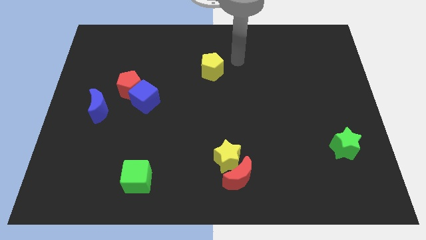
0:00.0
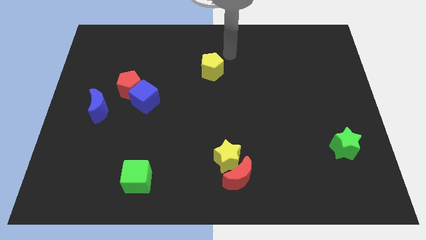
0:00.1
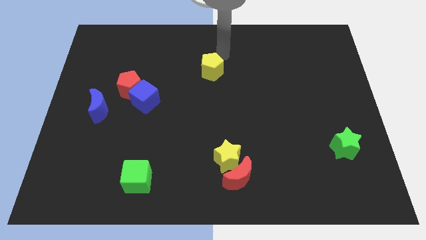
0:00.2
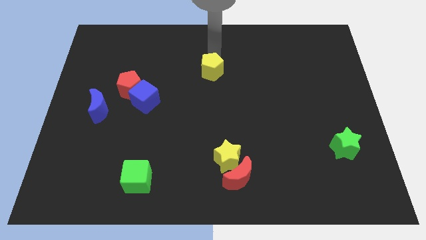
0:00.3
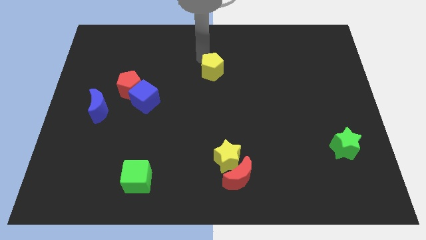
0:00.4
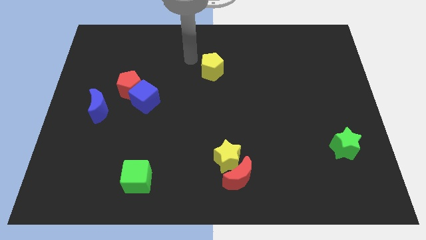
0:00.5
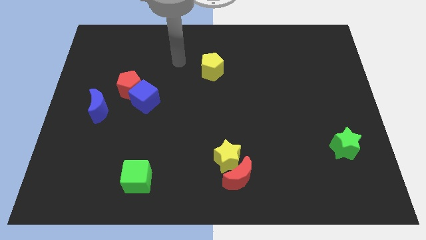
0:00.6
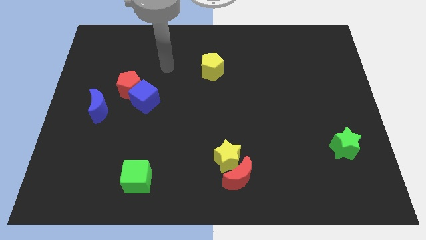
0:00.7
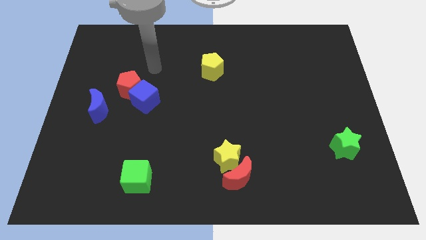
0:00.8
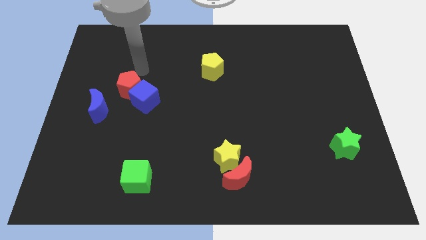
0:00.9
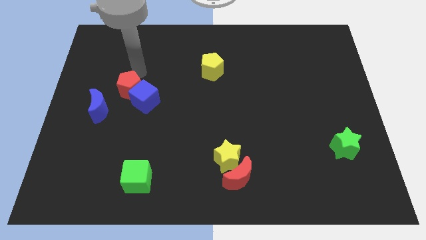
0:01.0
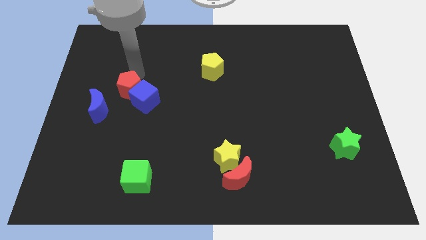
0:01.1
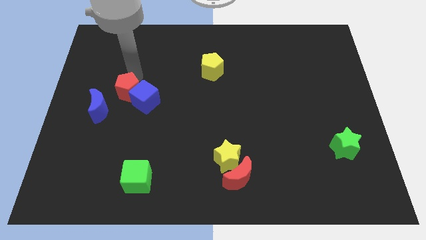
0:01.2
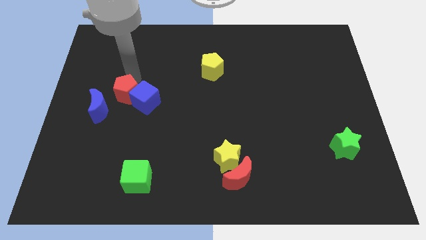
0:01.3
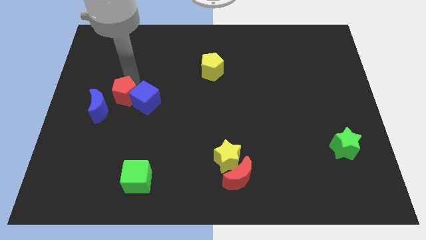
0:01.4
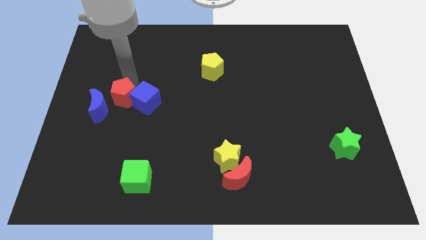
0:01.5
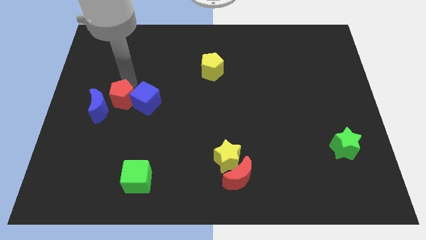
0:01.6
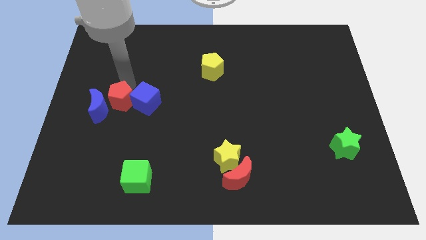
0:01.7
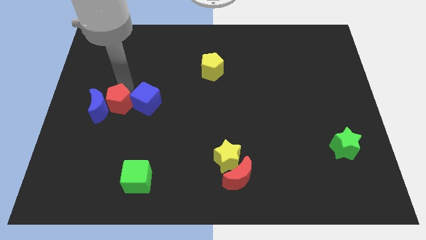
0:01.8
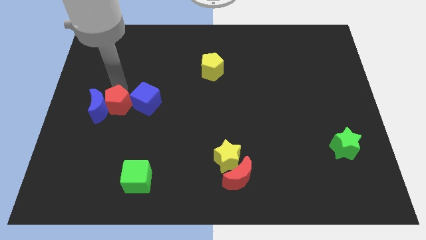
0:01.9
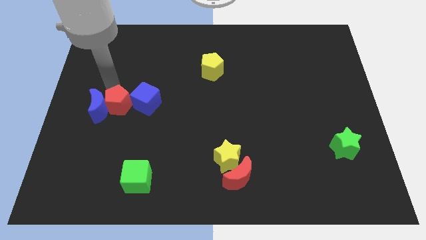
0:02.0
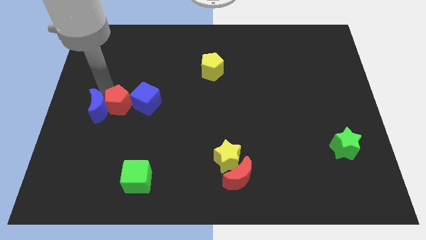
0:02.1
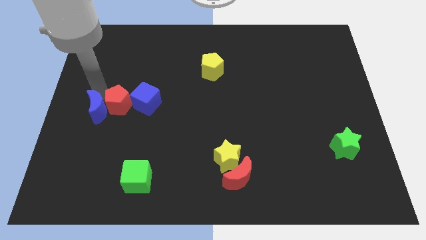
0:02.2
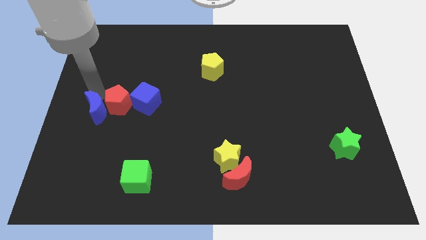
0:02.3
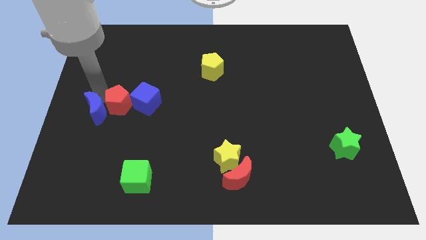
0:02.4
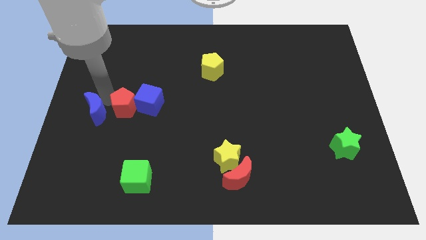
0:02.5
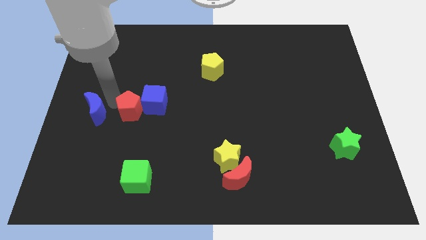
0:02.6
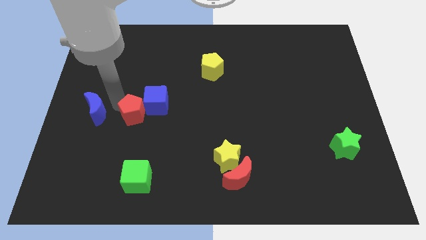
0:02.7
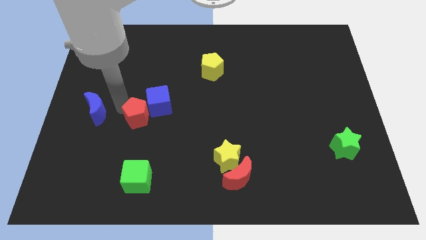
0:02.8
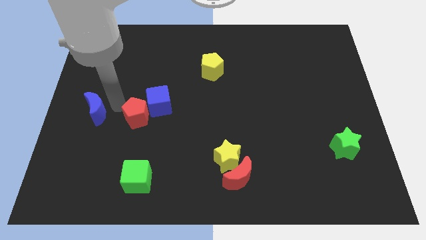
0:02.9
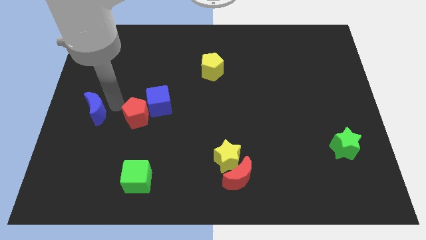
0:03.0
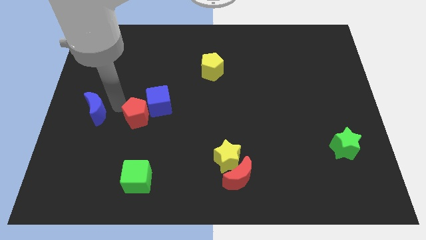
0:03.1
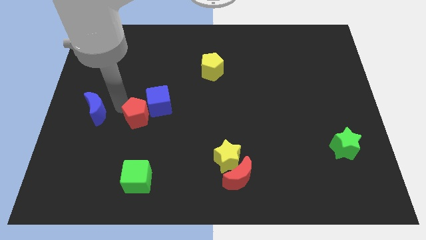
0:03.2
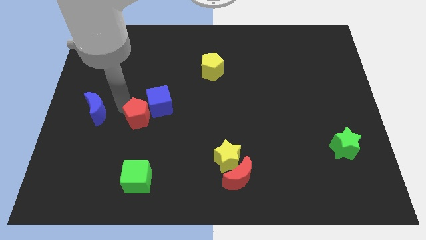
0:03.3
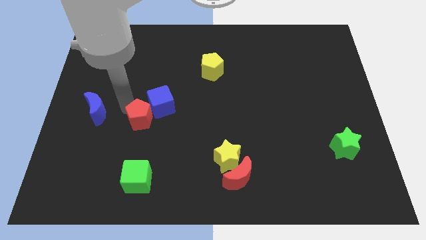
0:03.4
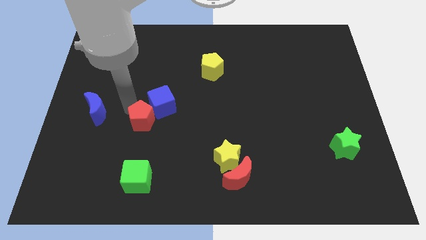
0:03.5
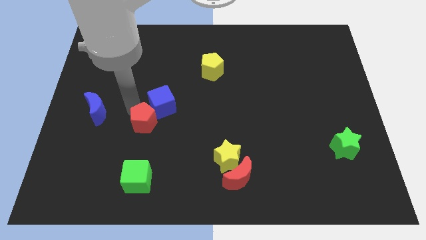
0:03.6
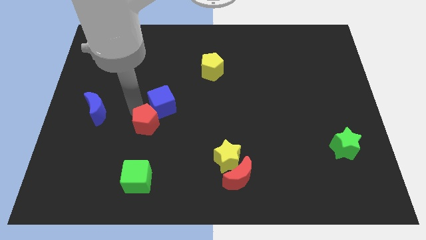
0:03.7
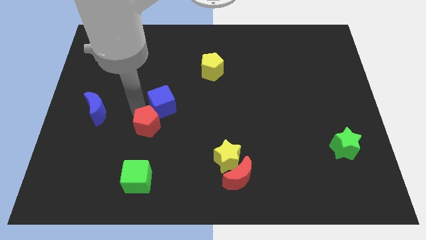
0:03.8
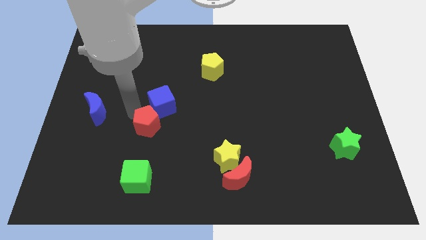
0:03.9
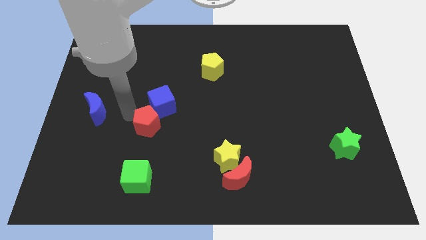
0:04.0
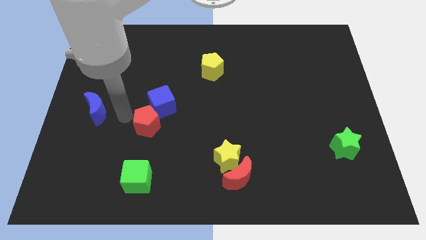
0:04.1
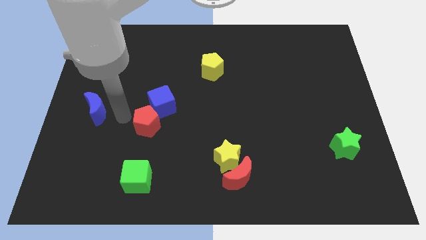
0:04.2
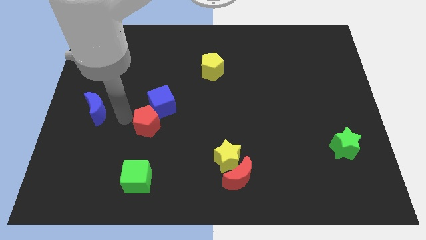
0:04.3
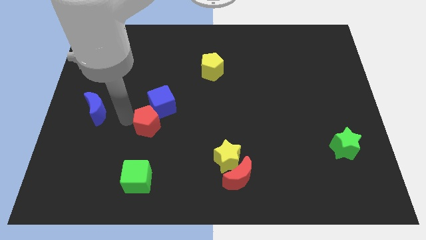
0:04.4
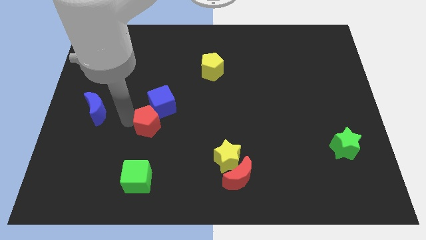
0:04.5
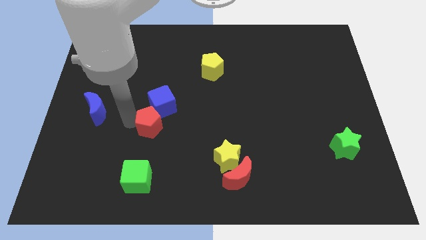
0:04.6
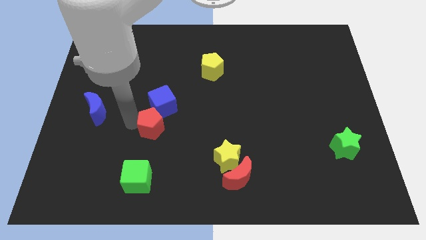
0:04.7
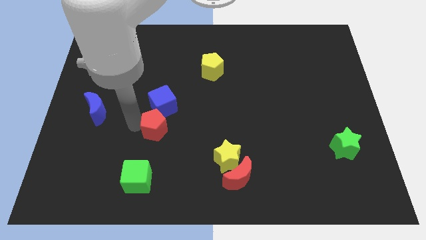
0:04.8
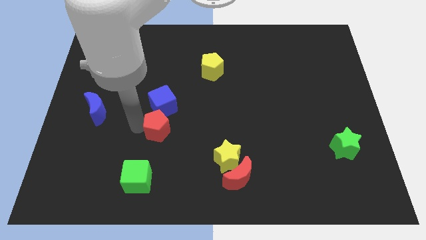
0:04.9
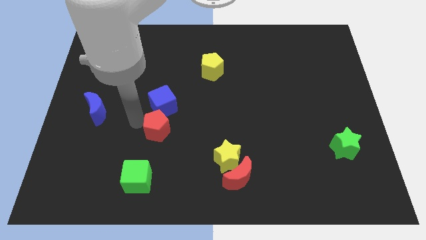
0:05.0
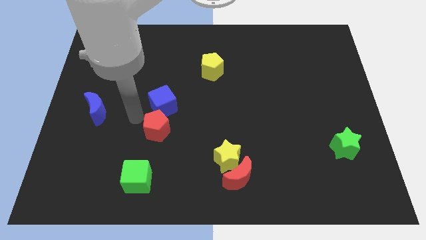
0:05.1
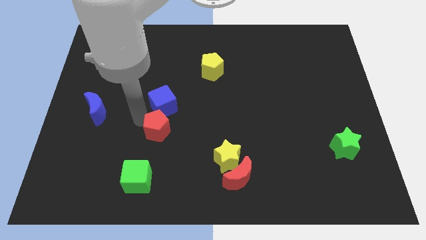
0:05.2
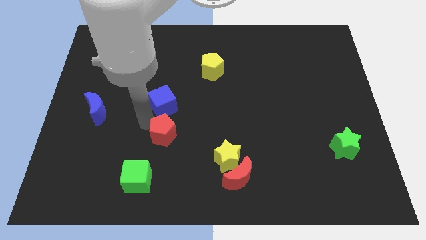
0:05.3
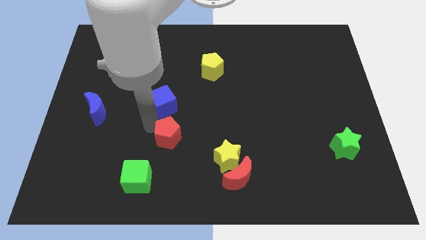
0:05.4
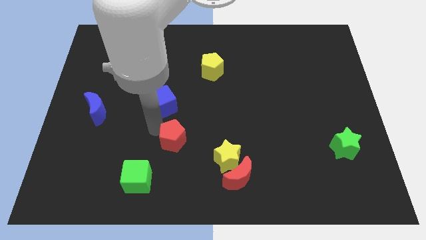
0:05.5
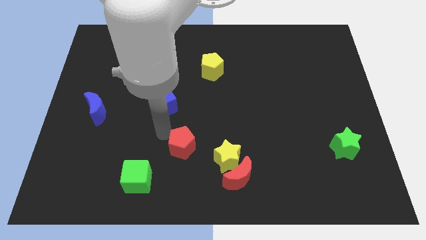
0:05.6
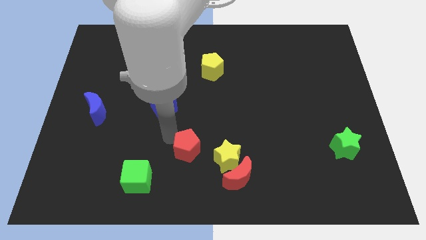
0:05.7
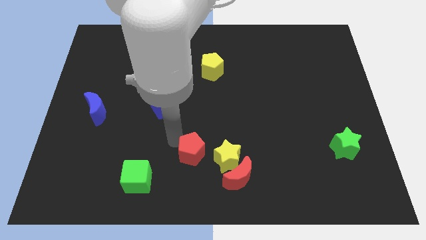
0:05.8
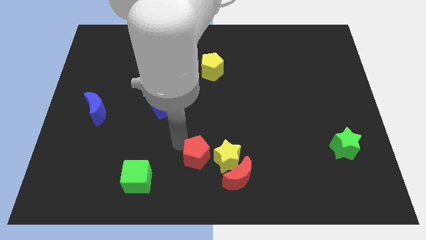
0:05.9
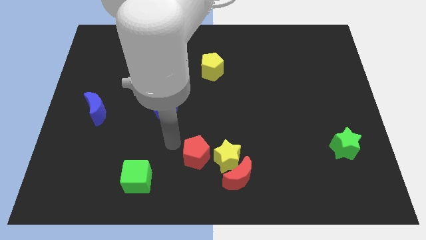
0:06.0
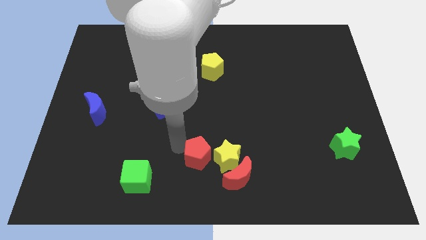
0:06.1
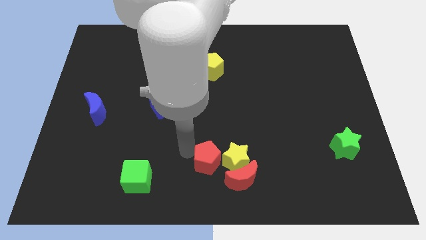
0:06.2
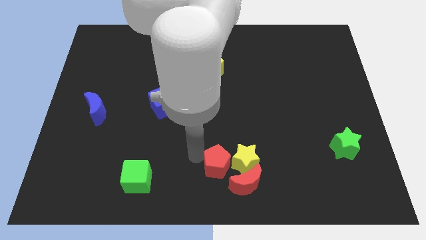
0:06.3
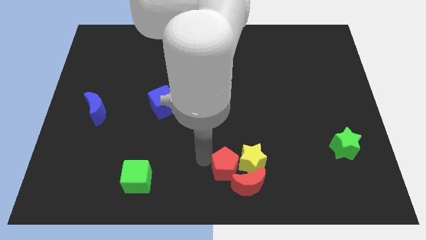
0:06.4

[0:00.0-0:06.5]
push the red pentagon to the red moon

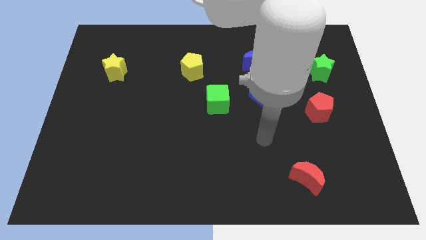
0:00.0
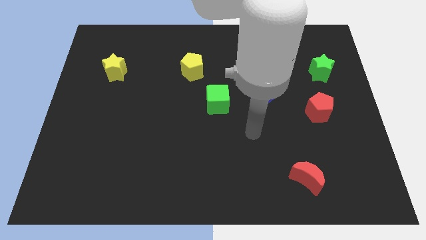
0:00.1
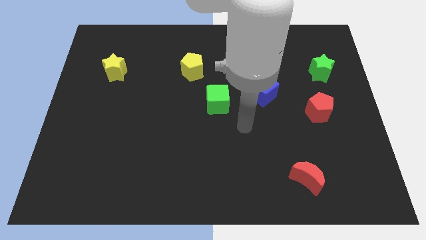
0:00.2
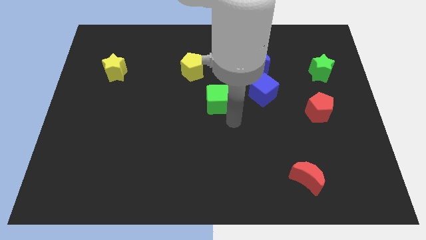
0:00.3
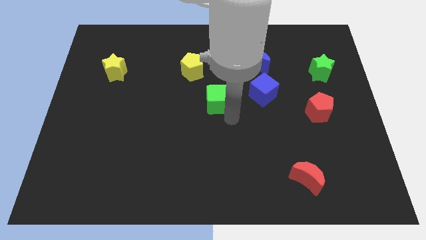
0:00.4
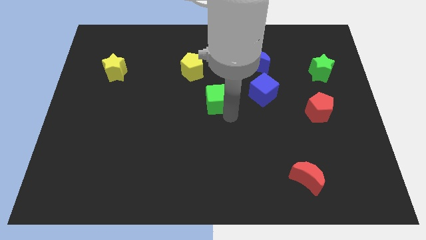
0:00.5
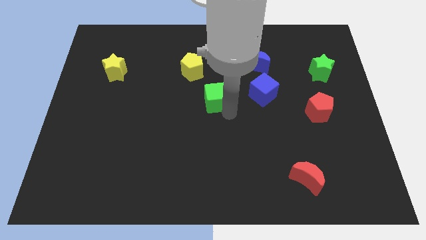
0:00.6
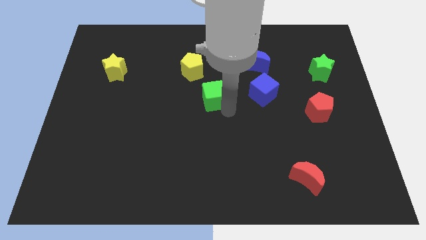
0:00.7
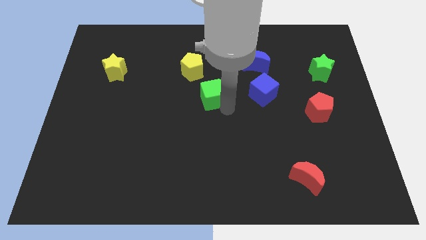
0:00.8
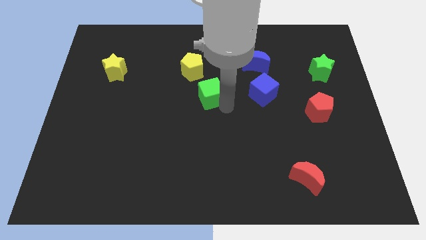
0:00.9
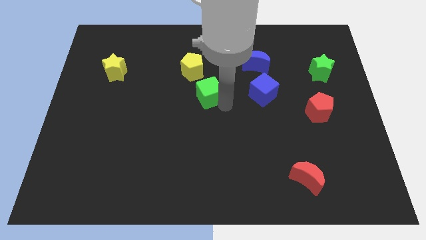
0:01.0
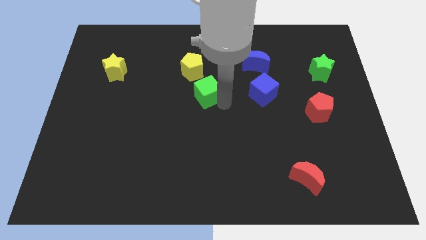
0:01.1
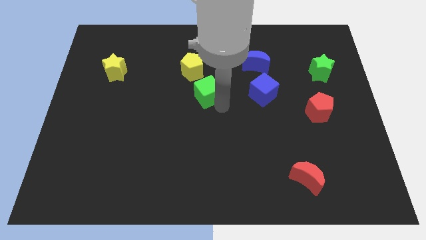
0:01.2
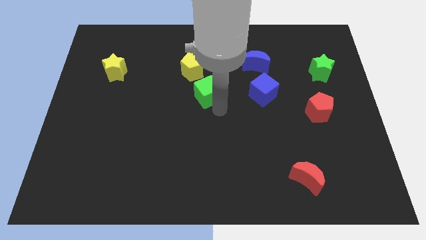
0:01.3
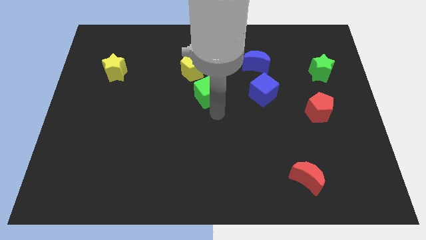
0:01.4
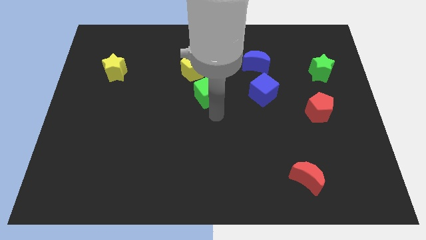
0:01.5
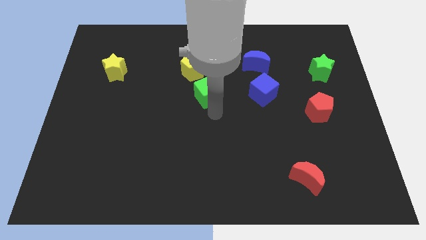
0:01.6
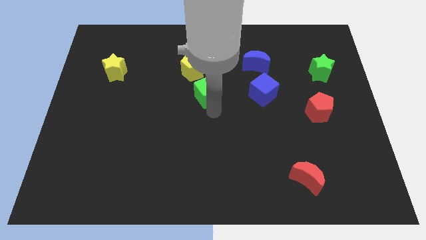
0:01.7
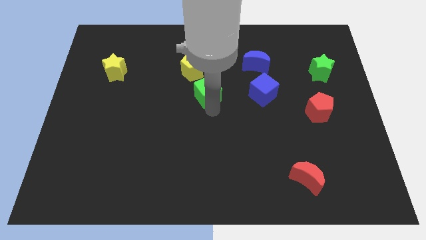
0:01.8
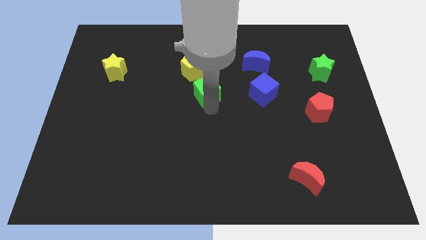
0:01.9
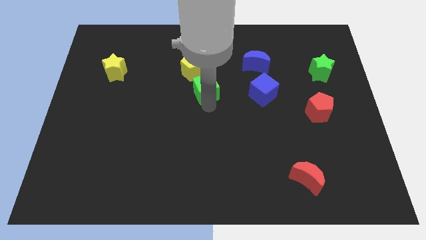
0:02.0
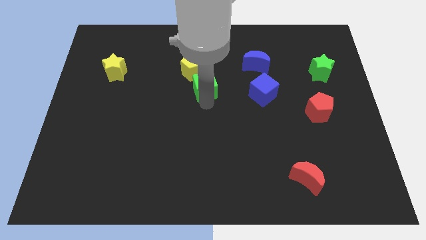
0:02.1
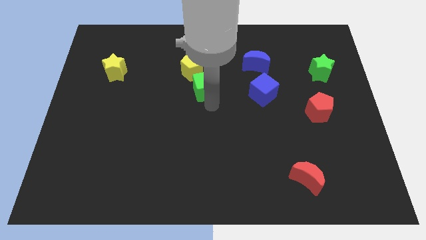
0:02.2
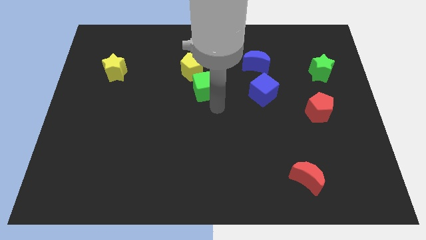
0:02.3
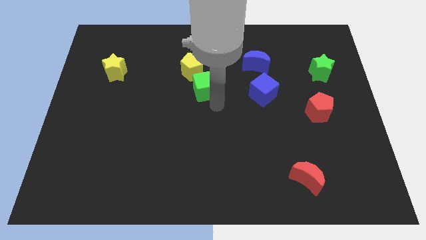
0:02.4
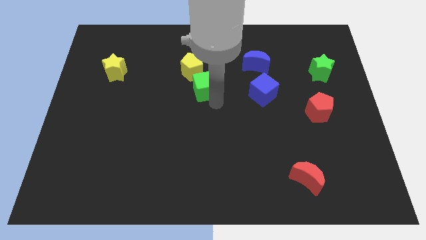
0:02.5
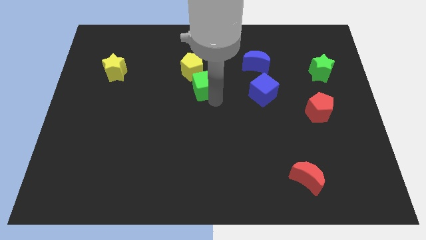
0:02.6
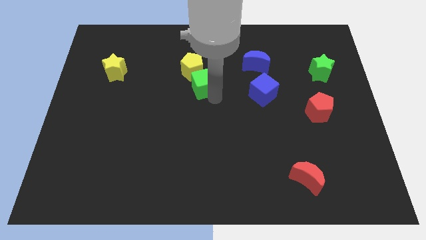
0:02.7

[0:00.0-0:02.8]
put the green cube towards the yellow pentagon
